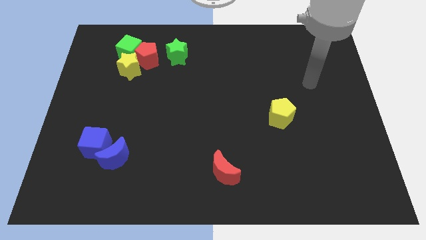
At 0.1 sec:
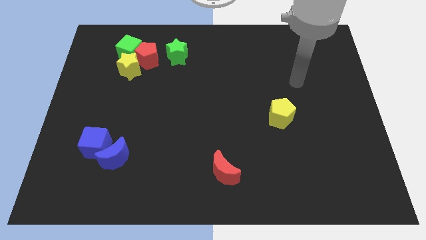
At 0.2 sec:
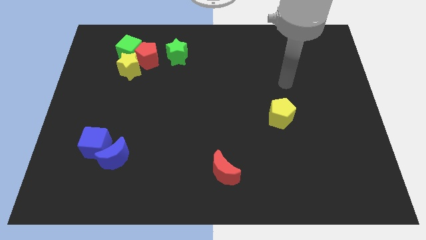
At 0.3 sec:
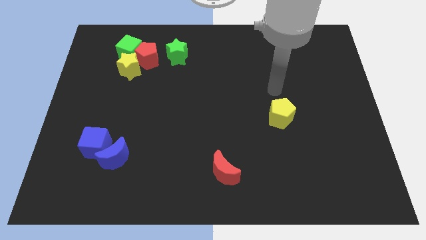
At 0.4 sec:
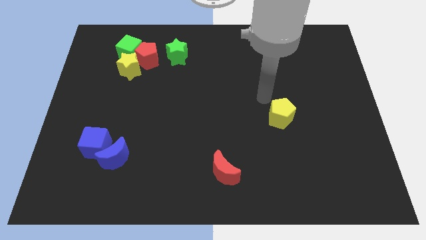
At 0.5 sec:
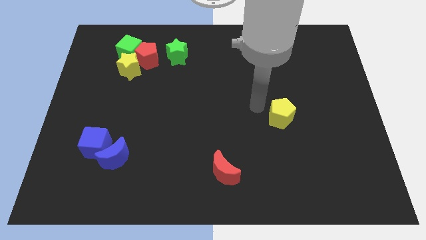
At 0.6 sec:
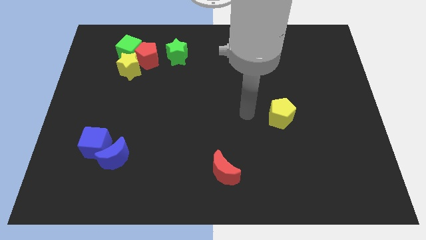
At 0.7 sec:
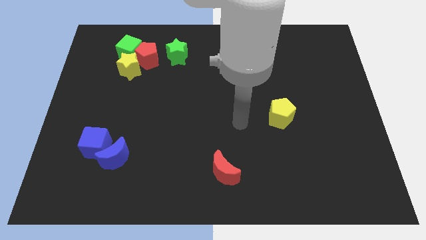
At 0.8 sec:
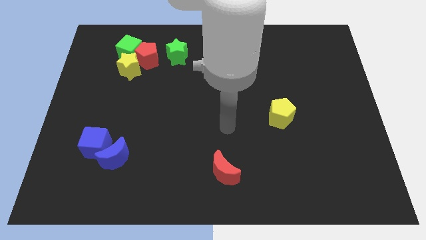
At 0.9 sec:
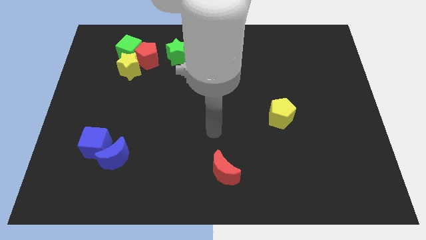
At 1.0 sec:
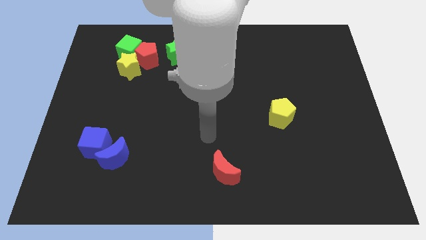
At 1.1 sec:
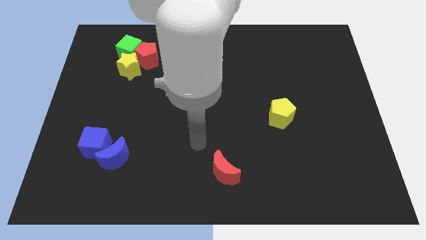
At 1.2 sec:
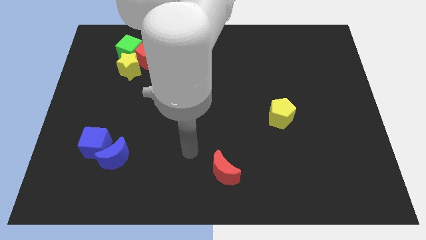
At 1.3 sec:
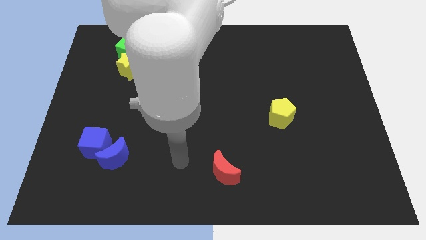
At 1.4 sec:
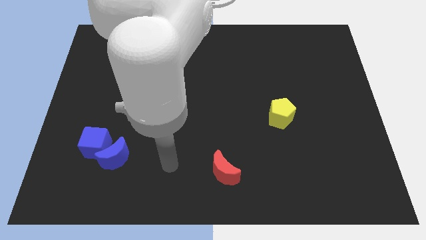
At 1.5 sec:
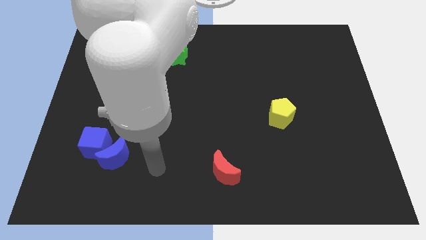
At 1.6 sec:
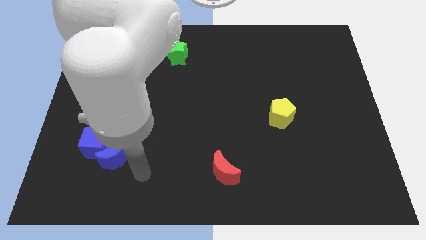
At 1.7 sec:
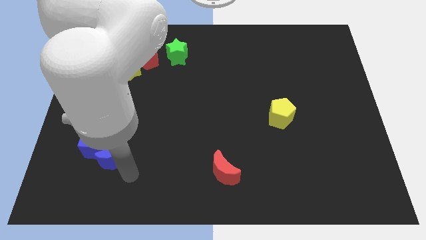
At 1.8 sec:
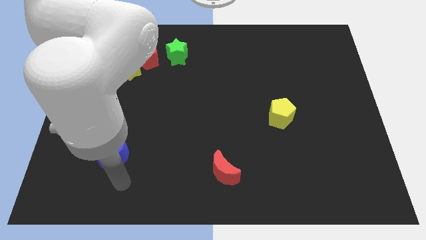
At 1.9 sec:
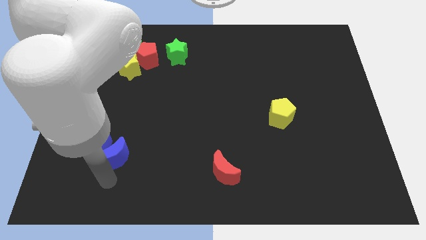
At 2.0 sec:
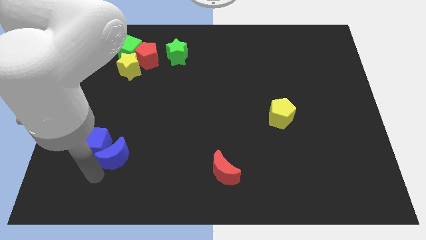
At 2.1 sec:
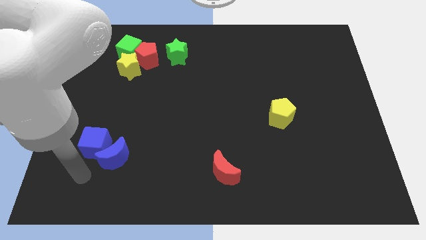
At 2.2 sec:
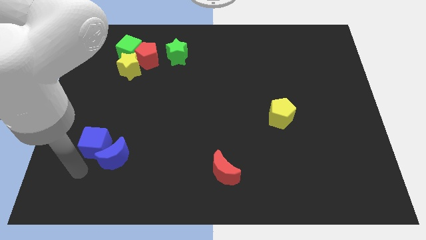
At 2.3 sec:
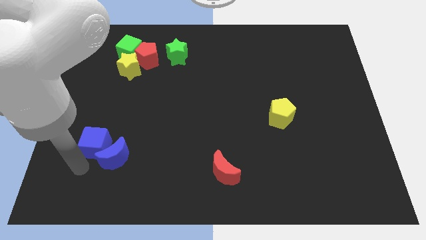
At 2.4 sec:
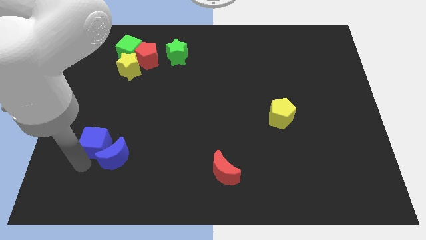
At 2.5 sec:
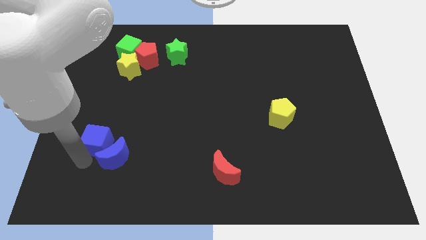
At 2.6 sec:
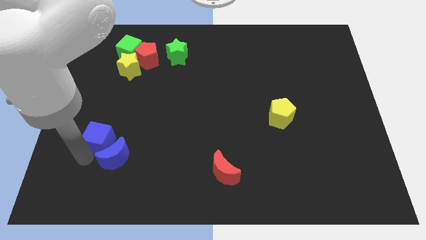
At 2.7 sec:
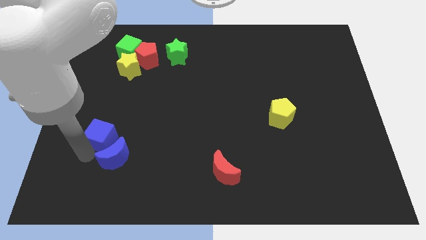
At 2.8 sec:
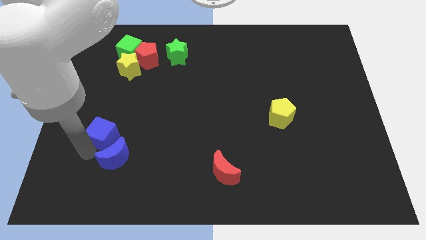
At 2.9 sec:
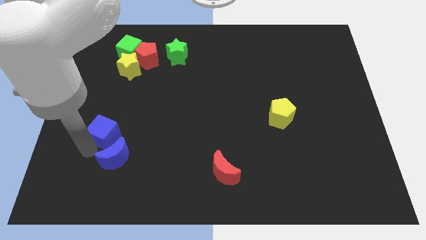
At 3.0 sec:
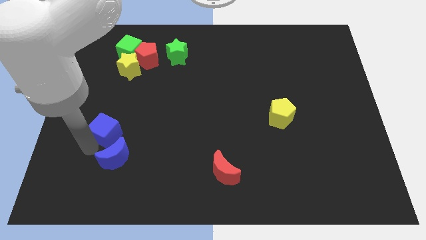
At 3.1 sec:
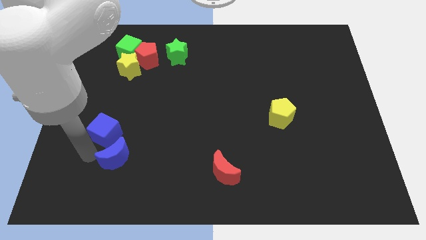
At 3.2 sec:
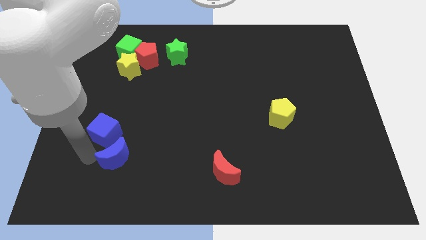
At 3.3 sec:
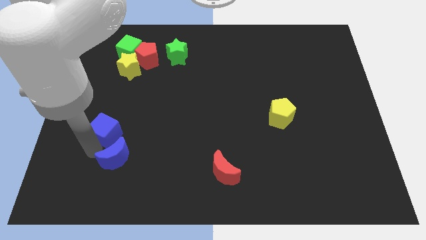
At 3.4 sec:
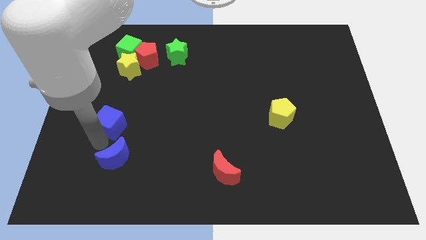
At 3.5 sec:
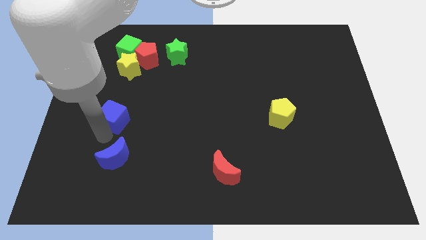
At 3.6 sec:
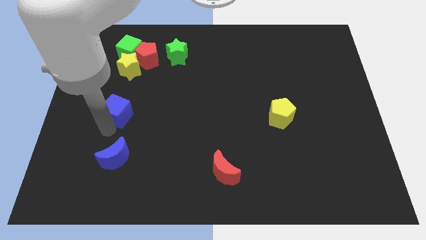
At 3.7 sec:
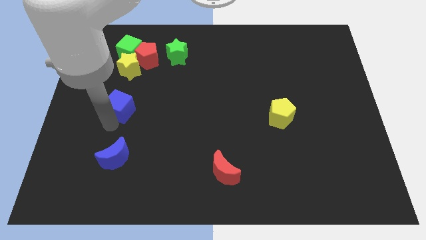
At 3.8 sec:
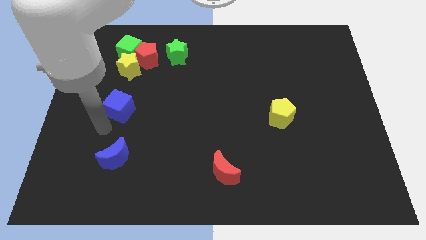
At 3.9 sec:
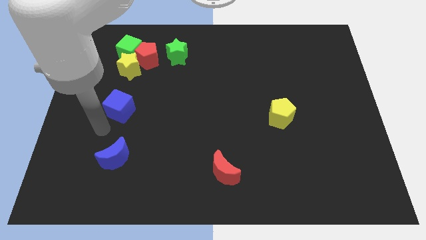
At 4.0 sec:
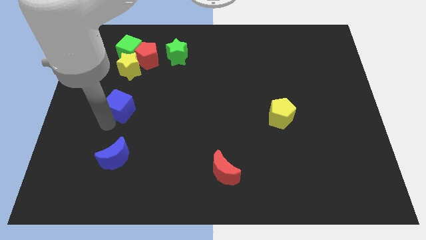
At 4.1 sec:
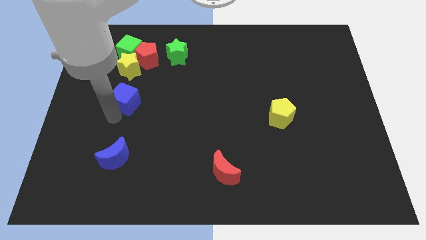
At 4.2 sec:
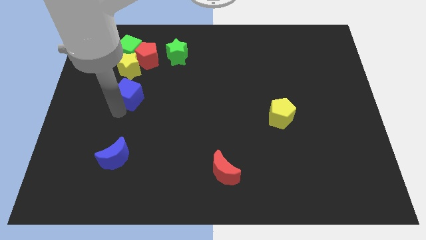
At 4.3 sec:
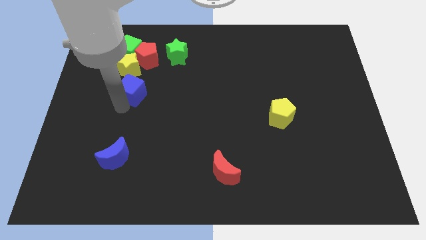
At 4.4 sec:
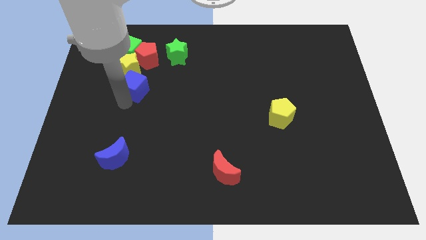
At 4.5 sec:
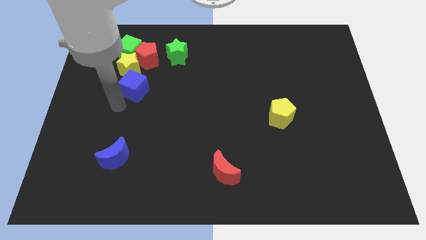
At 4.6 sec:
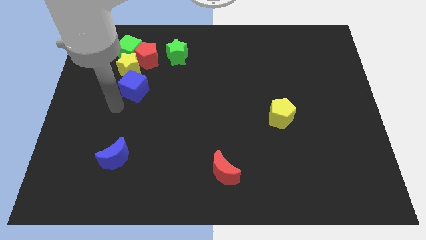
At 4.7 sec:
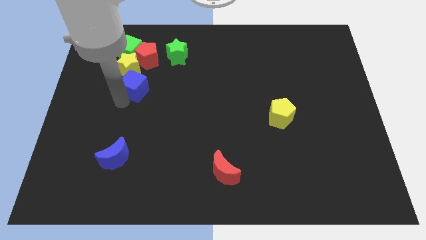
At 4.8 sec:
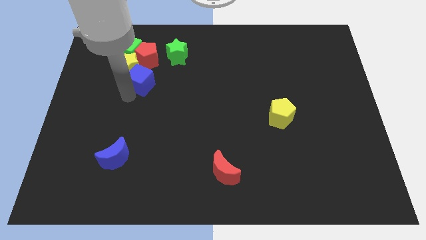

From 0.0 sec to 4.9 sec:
put the blue cube to the bottom left side of the green star

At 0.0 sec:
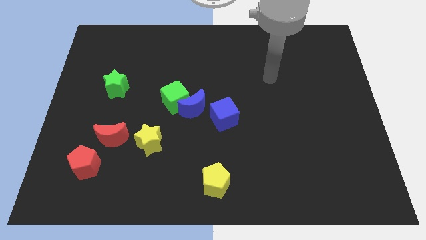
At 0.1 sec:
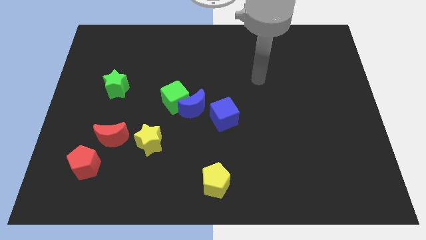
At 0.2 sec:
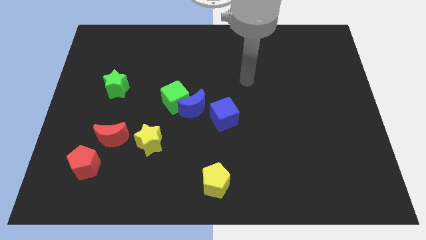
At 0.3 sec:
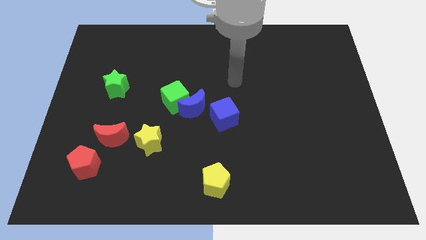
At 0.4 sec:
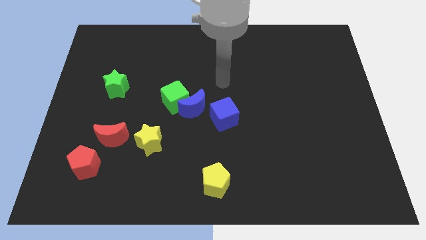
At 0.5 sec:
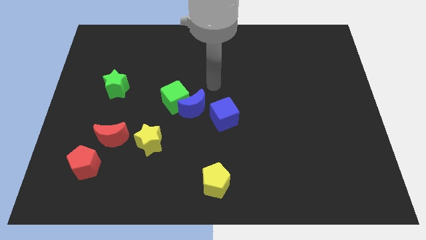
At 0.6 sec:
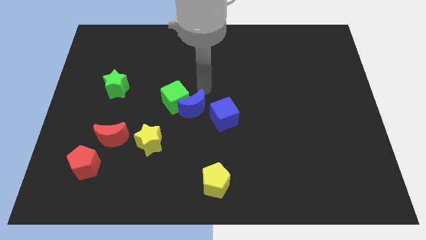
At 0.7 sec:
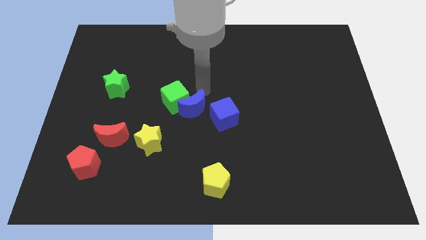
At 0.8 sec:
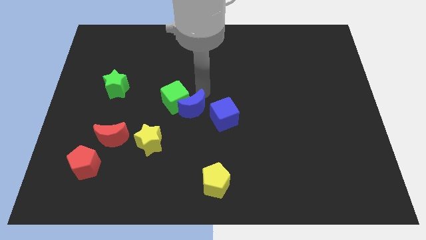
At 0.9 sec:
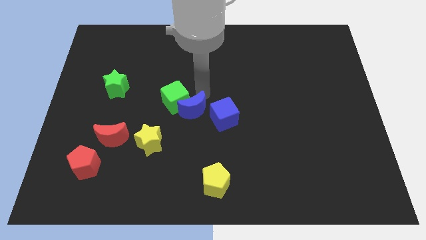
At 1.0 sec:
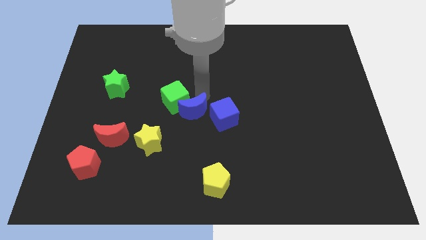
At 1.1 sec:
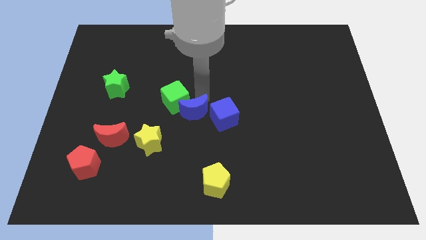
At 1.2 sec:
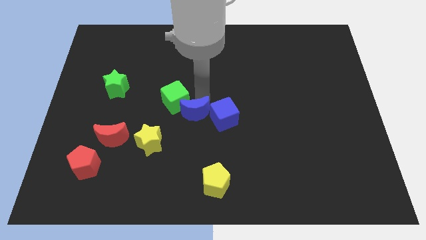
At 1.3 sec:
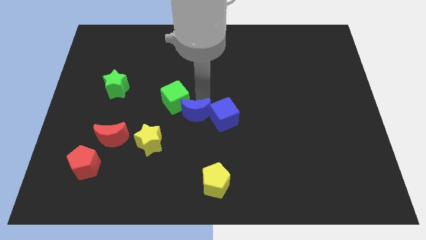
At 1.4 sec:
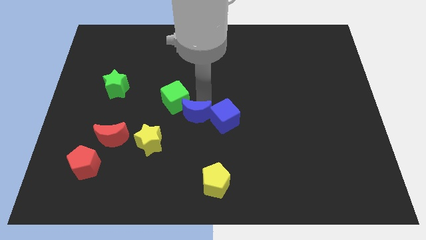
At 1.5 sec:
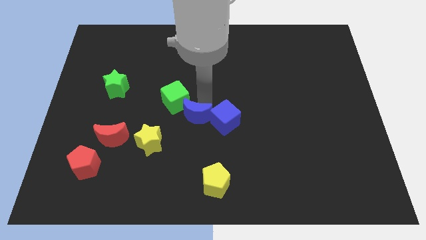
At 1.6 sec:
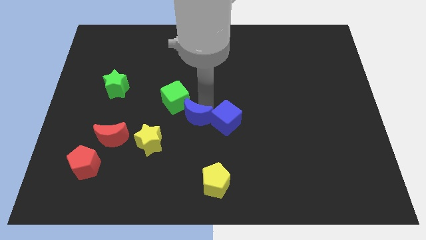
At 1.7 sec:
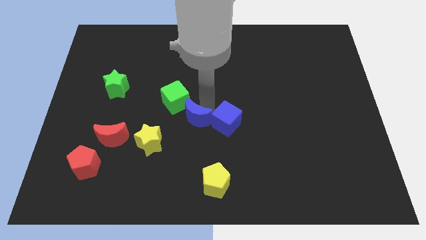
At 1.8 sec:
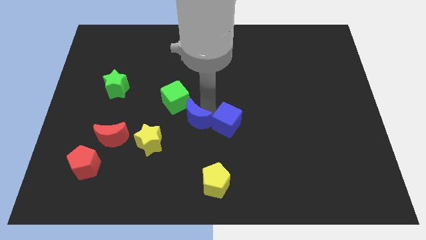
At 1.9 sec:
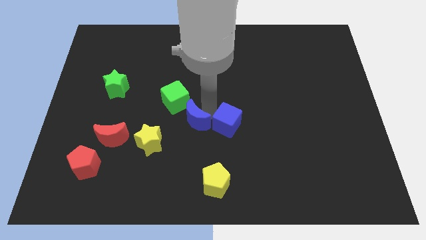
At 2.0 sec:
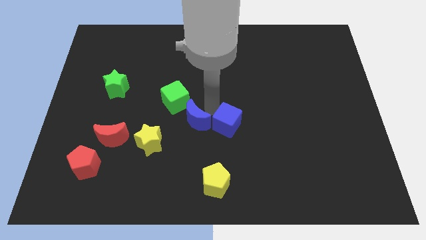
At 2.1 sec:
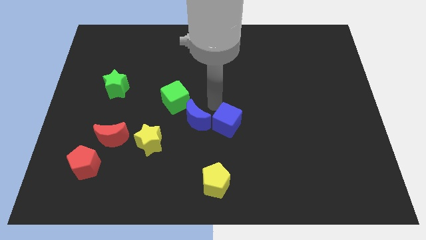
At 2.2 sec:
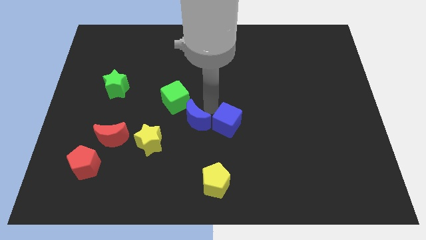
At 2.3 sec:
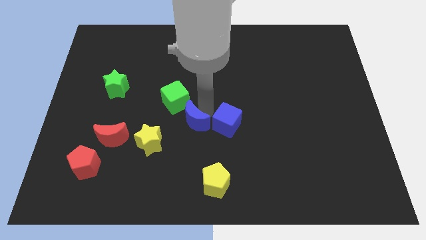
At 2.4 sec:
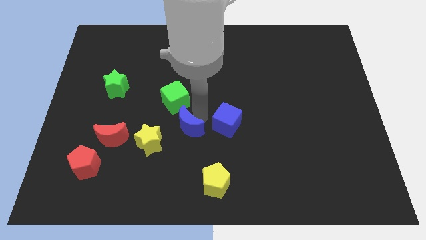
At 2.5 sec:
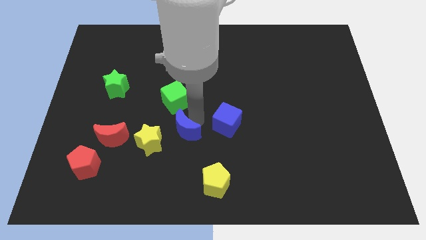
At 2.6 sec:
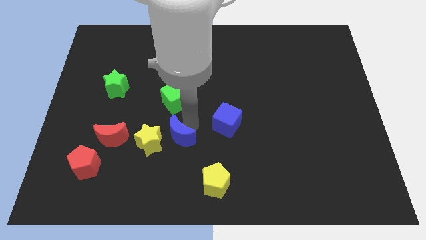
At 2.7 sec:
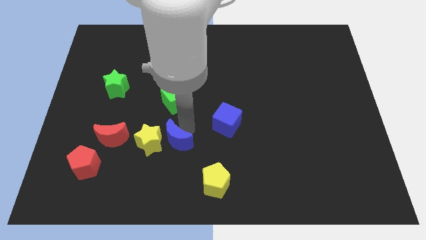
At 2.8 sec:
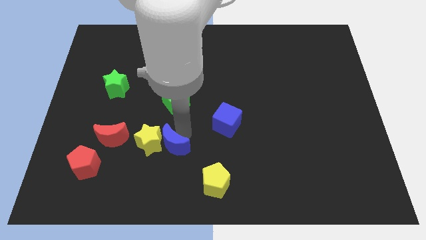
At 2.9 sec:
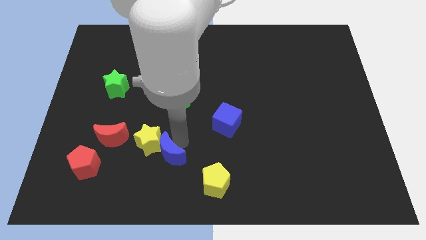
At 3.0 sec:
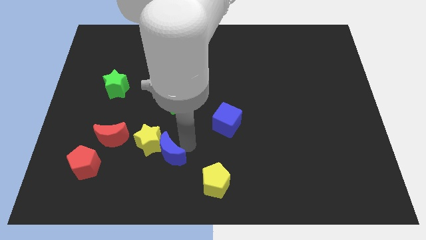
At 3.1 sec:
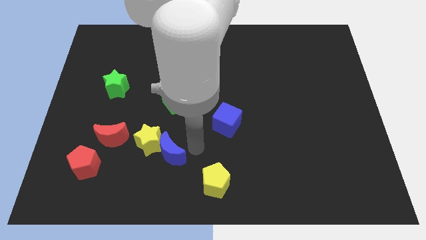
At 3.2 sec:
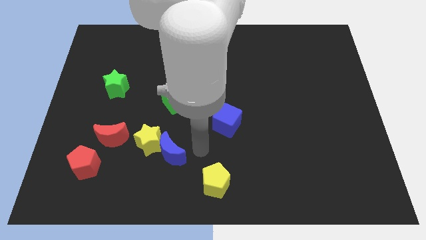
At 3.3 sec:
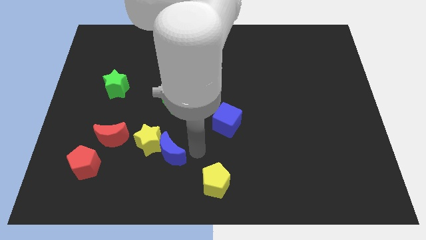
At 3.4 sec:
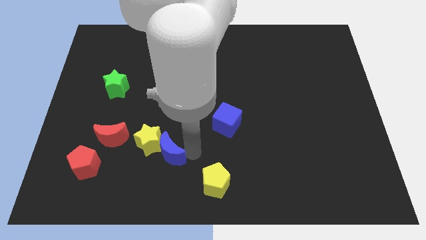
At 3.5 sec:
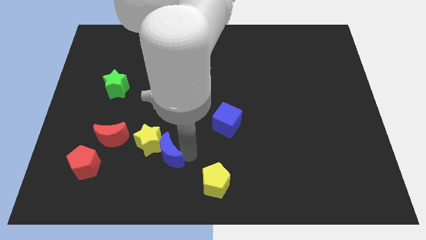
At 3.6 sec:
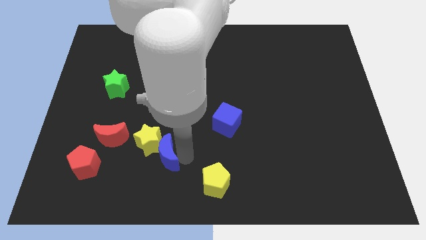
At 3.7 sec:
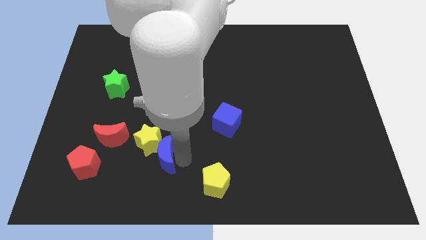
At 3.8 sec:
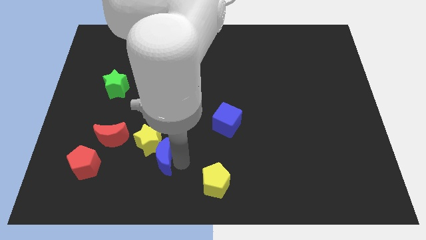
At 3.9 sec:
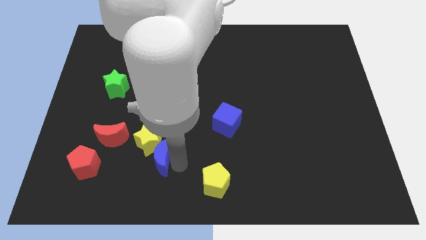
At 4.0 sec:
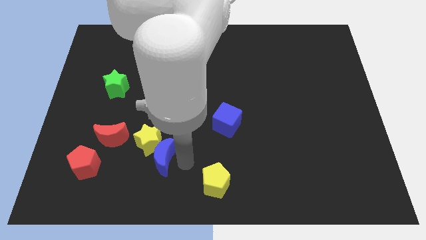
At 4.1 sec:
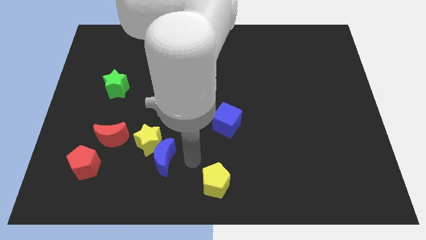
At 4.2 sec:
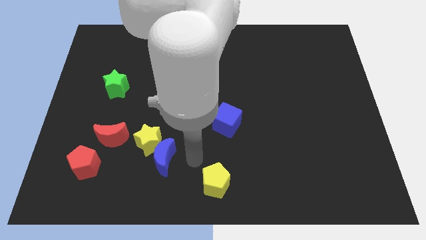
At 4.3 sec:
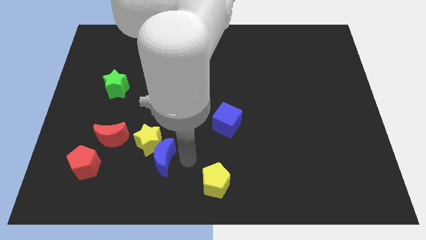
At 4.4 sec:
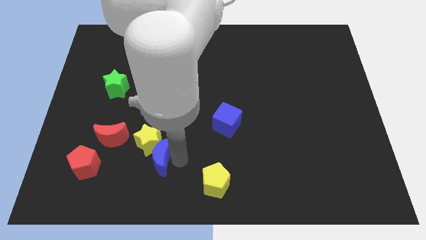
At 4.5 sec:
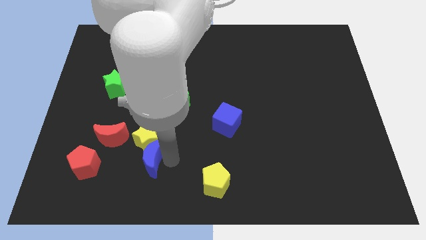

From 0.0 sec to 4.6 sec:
put the blue moon to the bottom right of the red moon
